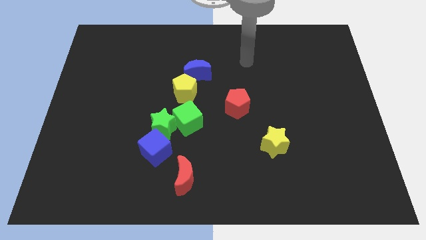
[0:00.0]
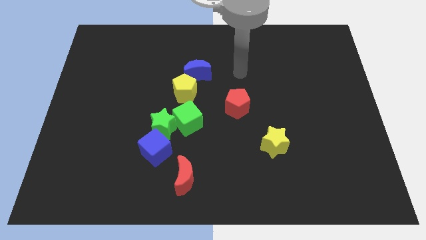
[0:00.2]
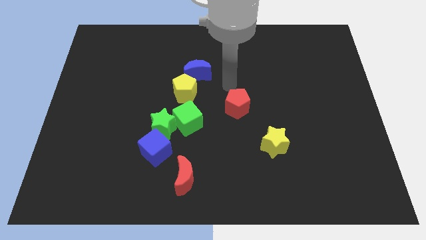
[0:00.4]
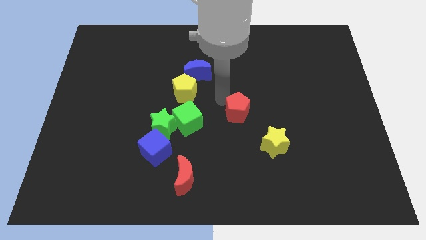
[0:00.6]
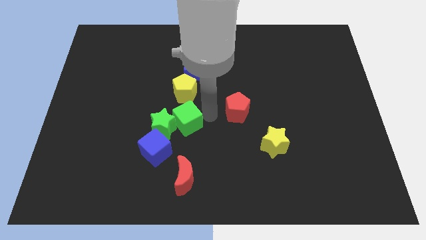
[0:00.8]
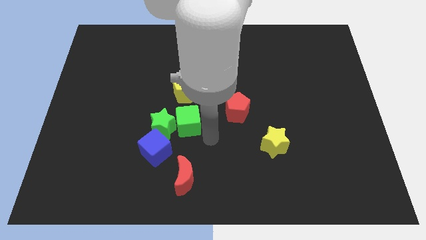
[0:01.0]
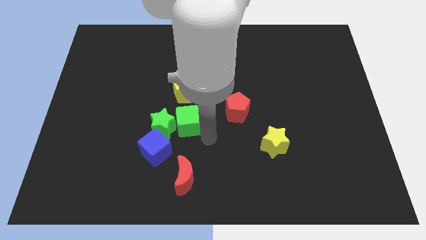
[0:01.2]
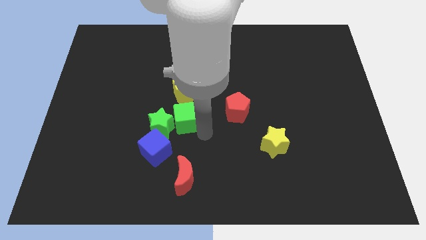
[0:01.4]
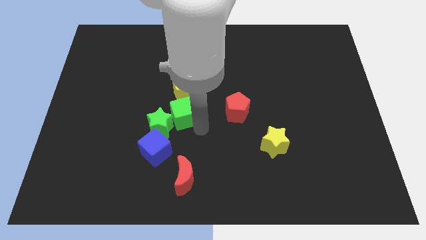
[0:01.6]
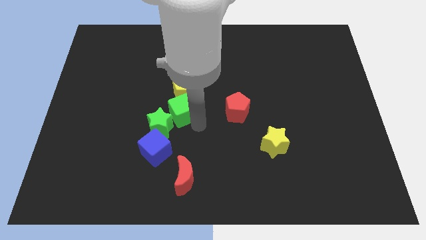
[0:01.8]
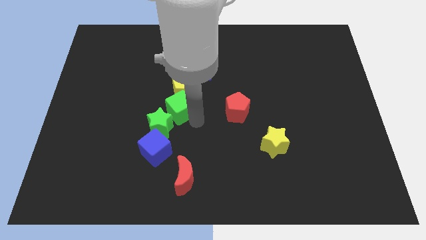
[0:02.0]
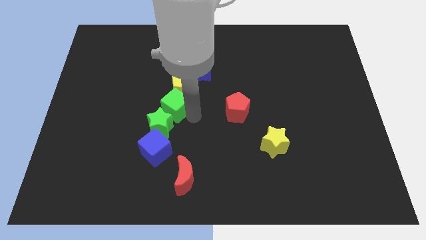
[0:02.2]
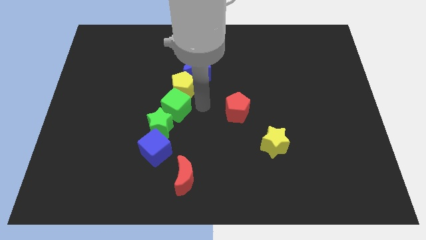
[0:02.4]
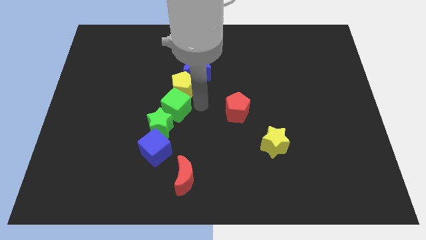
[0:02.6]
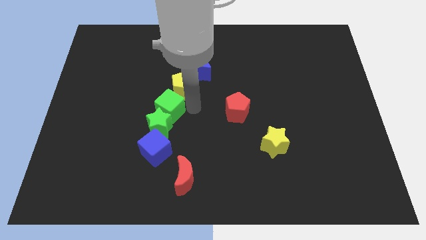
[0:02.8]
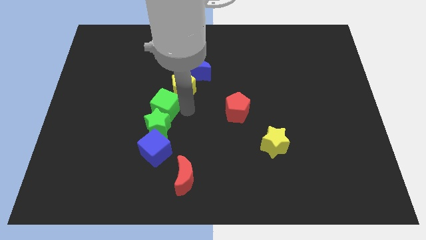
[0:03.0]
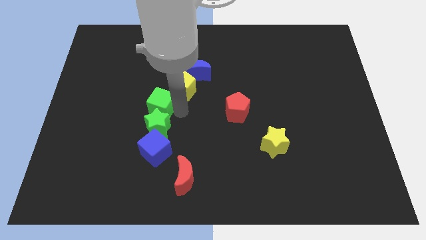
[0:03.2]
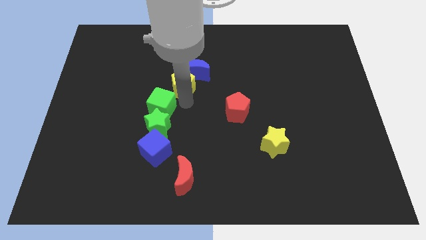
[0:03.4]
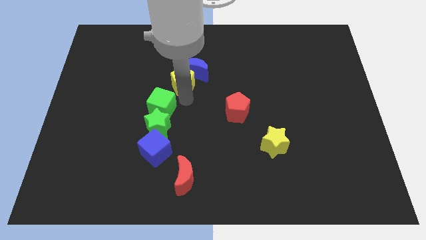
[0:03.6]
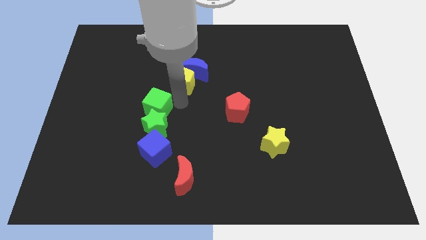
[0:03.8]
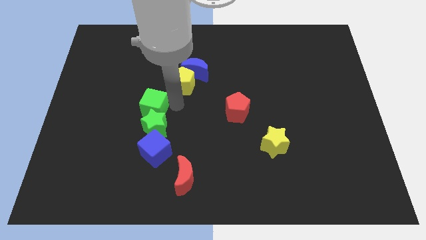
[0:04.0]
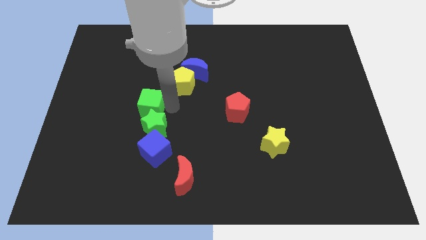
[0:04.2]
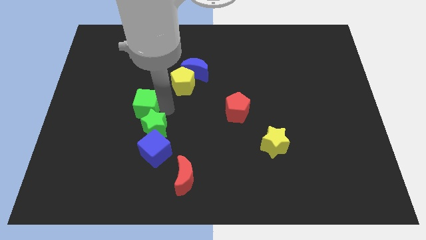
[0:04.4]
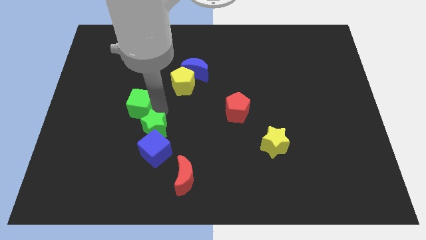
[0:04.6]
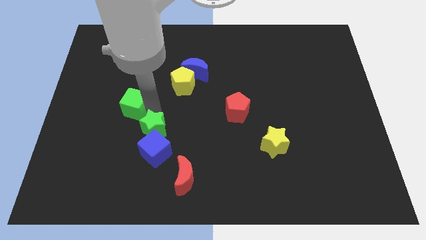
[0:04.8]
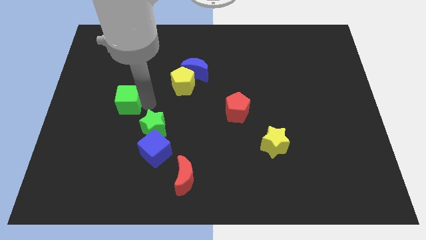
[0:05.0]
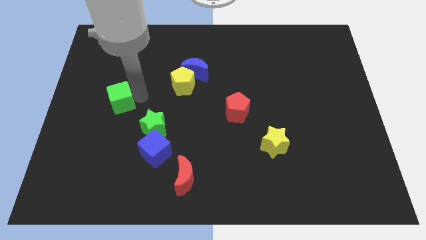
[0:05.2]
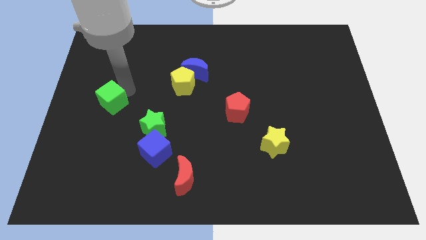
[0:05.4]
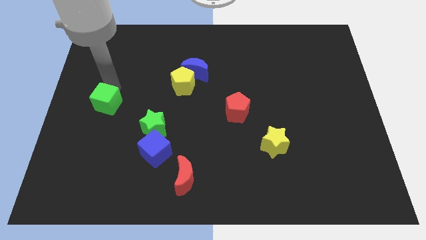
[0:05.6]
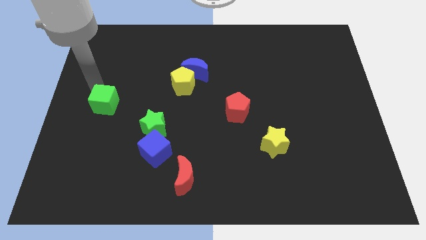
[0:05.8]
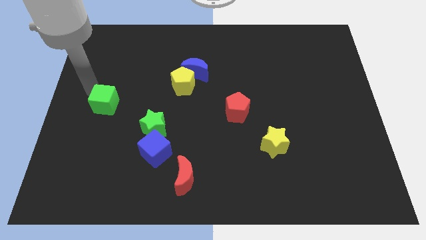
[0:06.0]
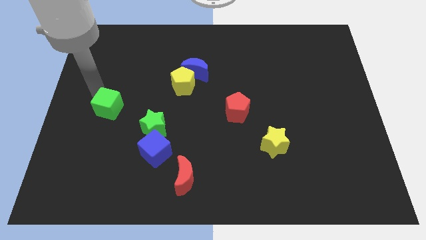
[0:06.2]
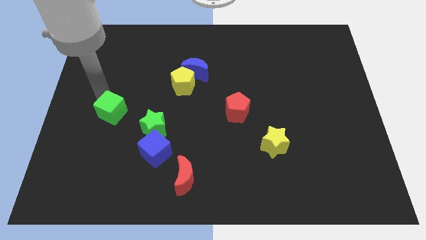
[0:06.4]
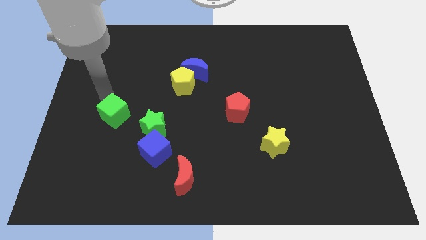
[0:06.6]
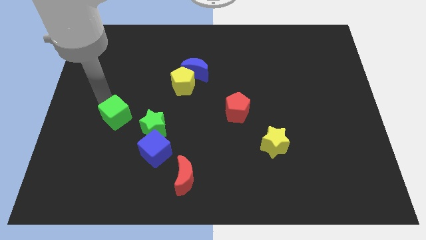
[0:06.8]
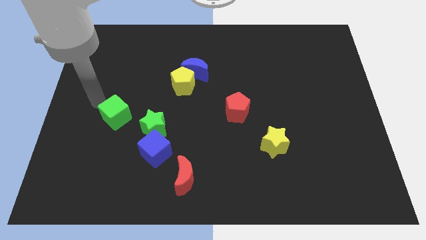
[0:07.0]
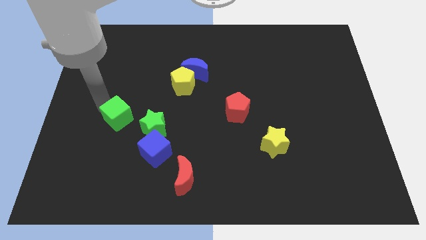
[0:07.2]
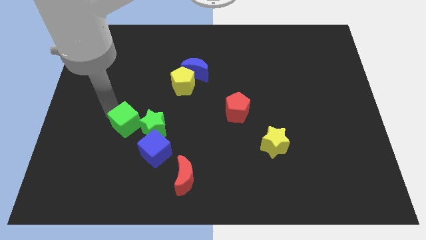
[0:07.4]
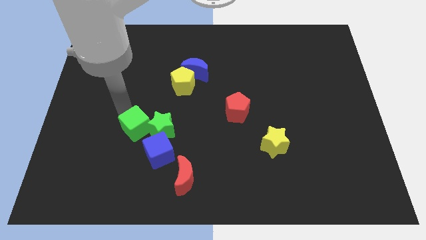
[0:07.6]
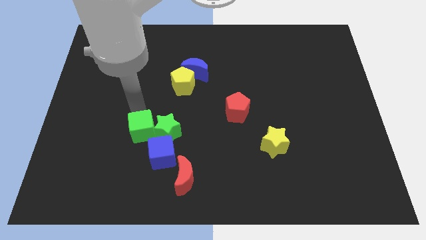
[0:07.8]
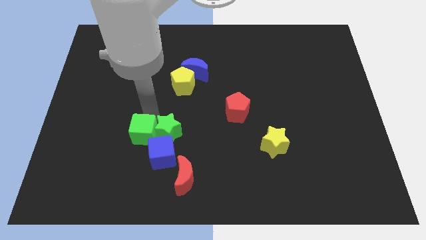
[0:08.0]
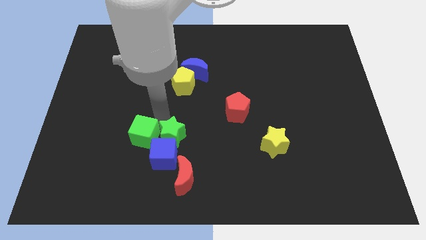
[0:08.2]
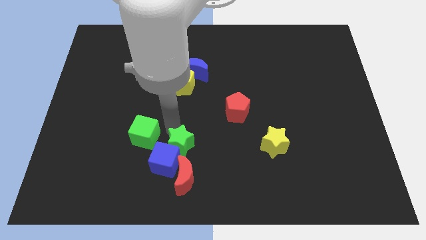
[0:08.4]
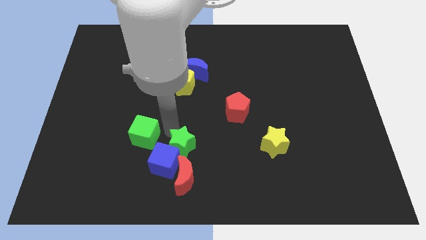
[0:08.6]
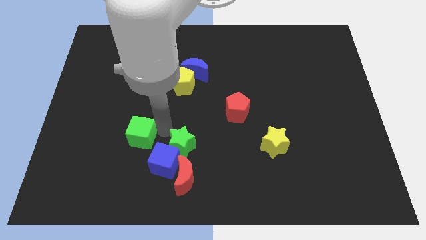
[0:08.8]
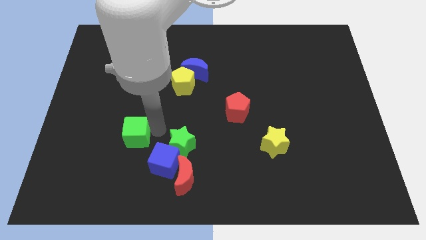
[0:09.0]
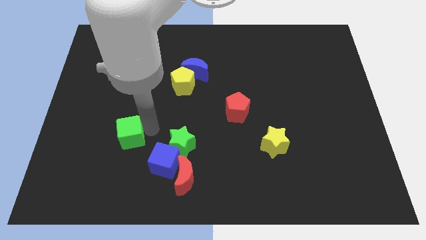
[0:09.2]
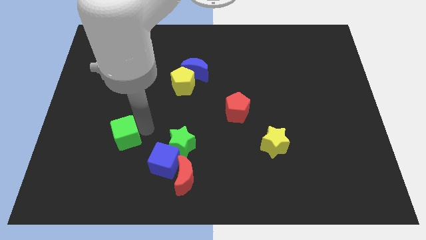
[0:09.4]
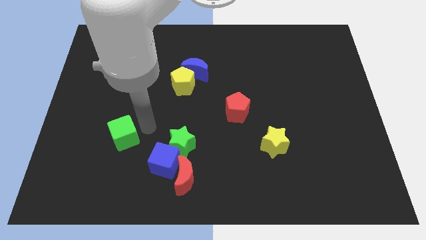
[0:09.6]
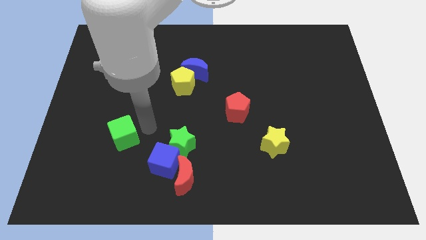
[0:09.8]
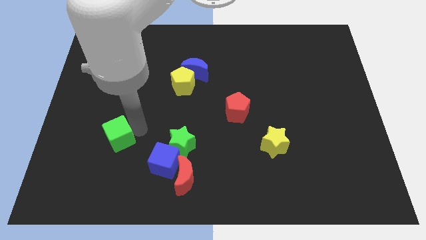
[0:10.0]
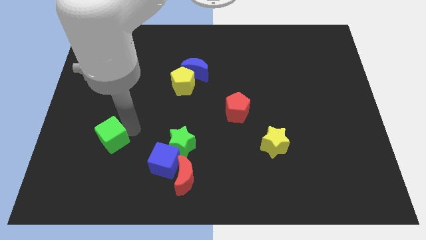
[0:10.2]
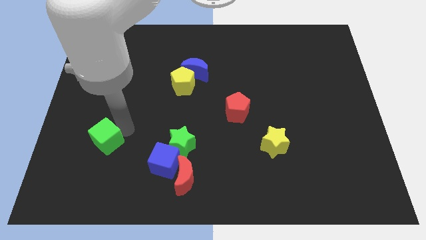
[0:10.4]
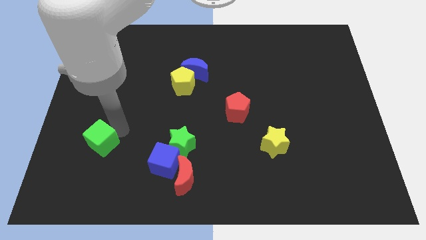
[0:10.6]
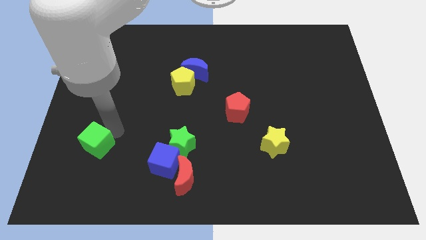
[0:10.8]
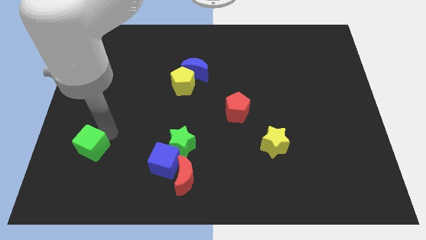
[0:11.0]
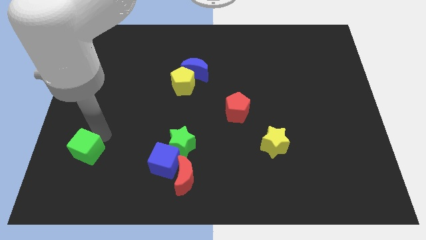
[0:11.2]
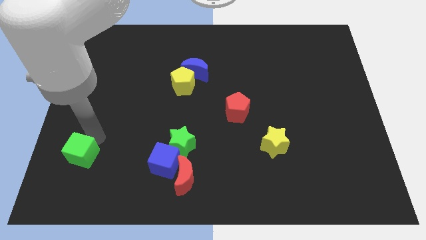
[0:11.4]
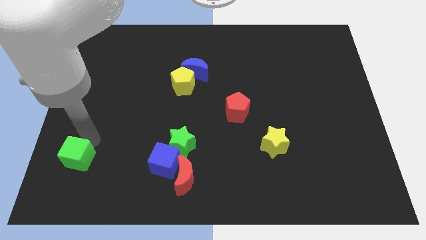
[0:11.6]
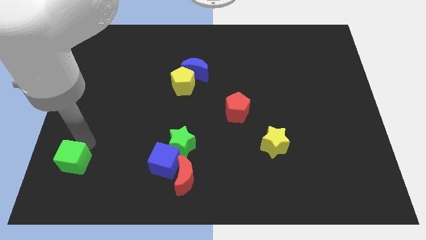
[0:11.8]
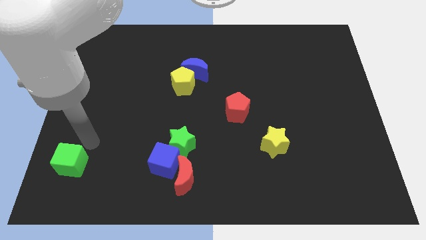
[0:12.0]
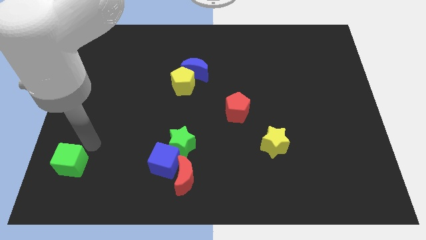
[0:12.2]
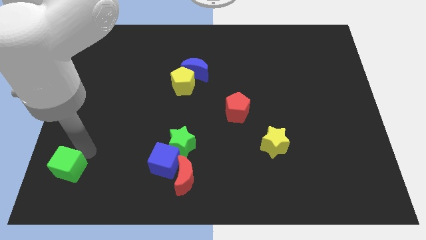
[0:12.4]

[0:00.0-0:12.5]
push the green cube to the bottom left
